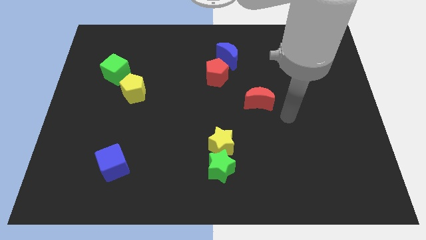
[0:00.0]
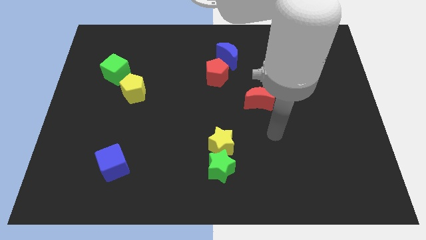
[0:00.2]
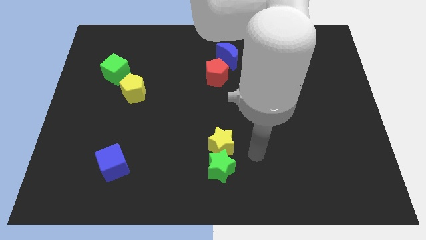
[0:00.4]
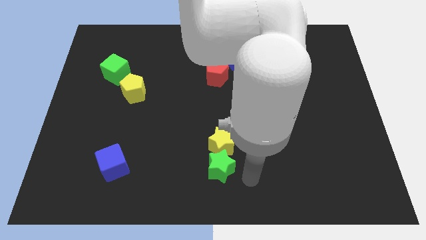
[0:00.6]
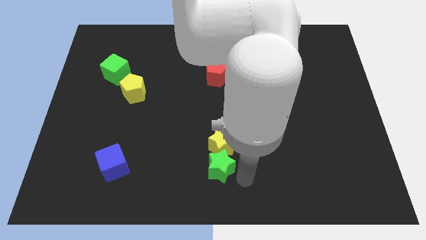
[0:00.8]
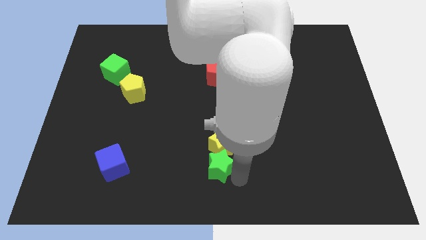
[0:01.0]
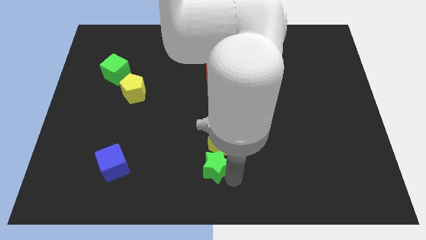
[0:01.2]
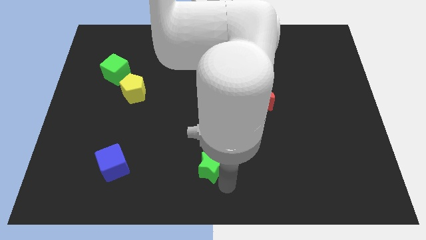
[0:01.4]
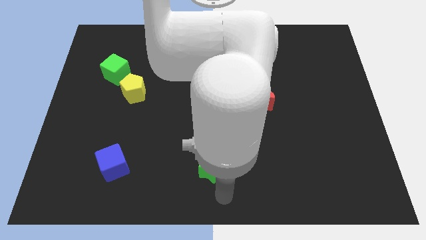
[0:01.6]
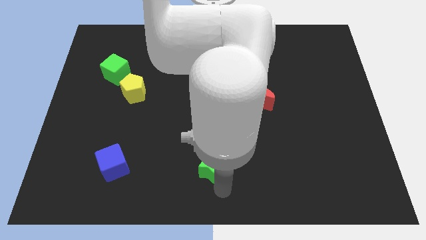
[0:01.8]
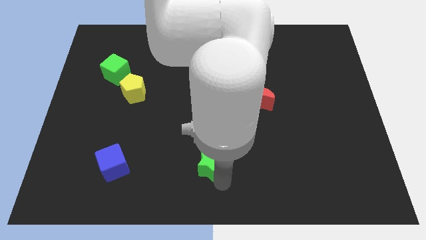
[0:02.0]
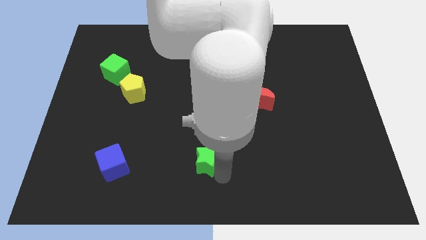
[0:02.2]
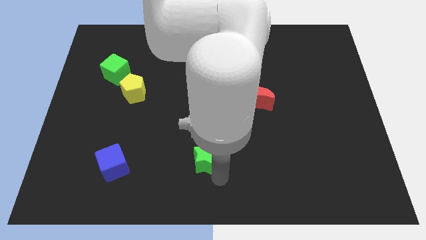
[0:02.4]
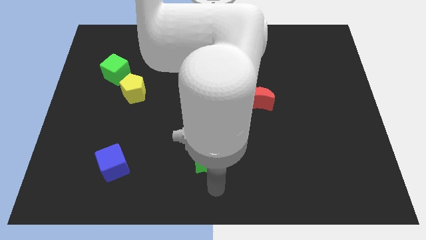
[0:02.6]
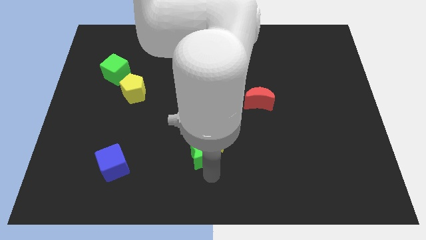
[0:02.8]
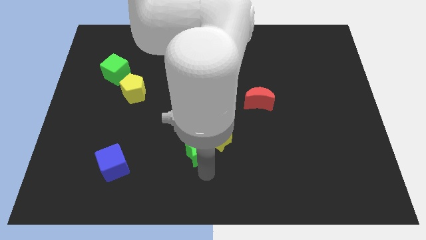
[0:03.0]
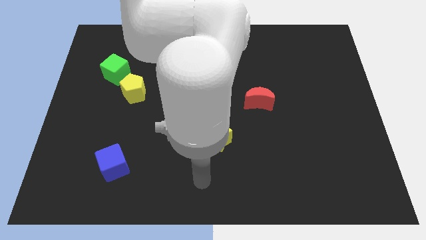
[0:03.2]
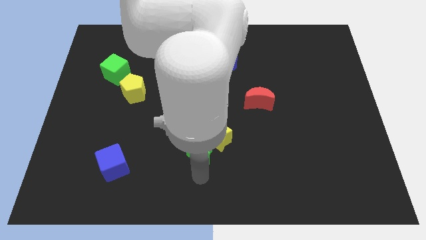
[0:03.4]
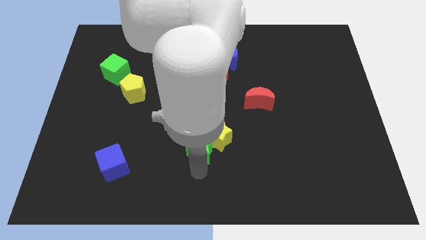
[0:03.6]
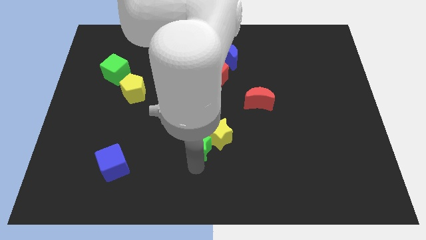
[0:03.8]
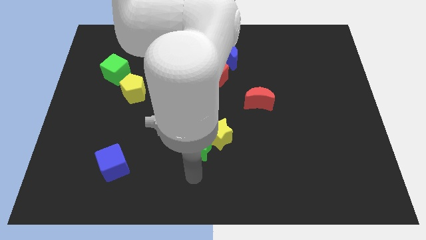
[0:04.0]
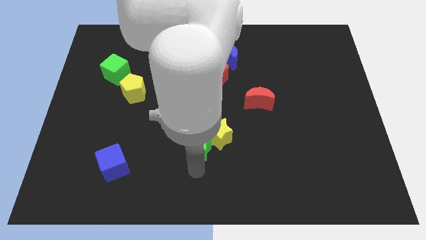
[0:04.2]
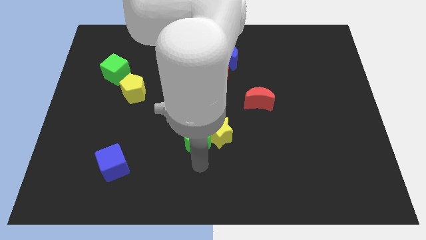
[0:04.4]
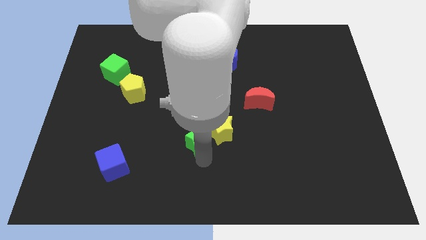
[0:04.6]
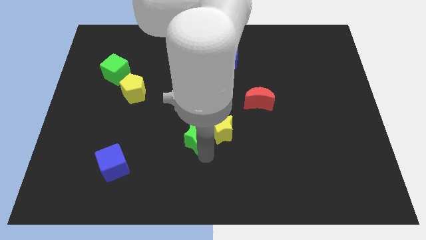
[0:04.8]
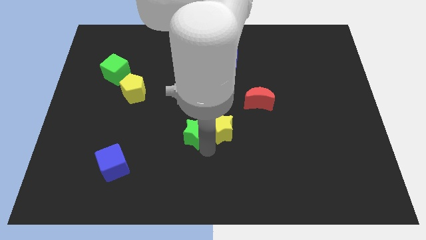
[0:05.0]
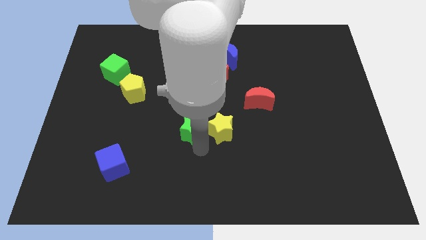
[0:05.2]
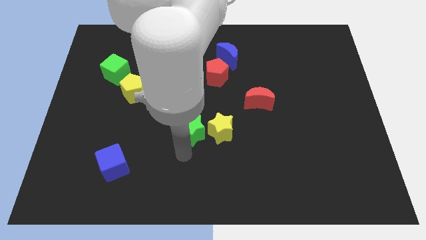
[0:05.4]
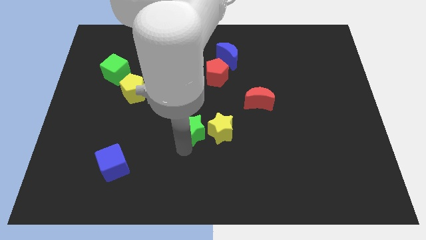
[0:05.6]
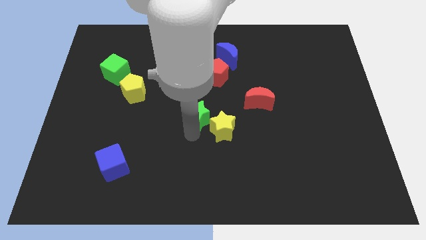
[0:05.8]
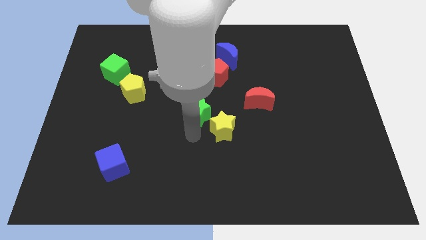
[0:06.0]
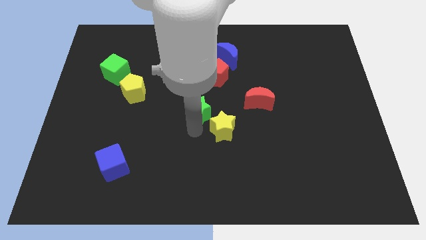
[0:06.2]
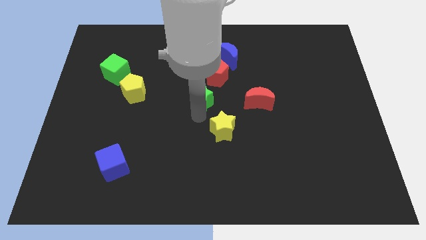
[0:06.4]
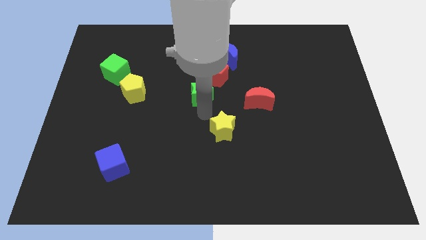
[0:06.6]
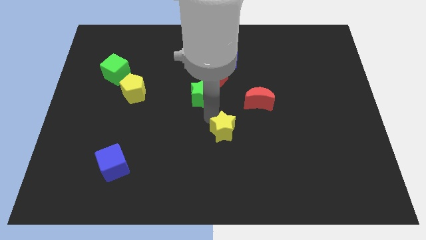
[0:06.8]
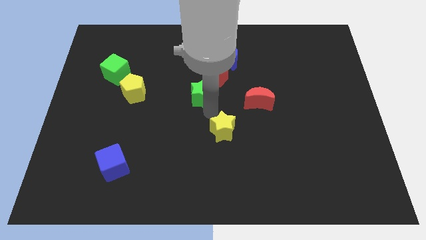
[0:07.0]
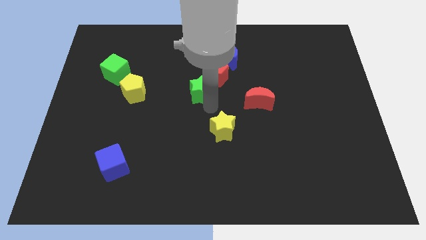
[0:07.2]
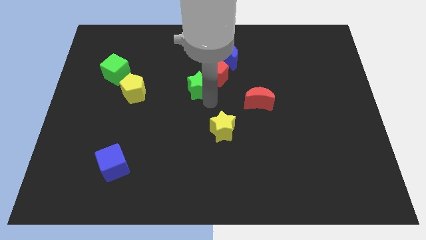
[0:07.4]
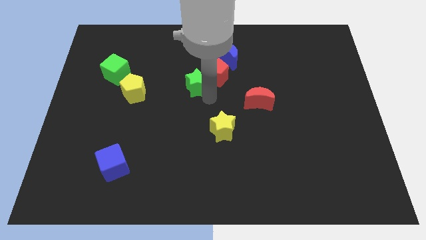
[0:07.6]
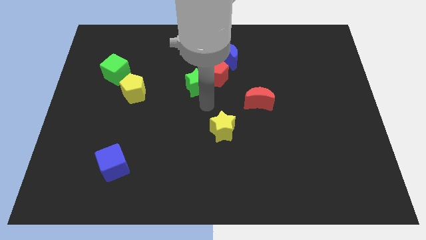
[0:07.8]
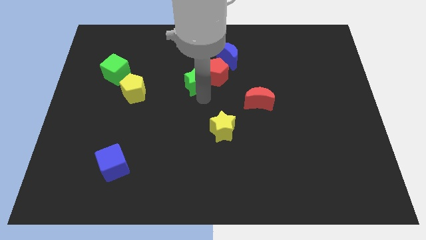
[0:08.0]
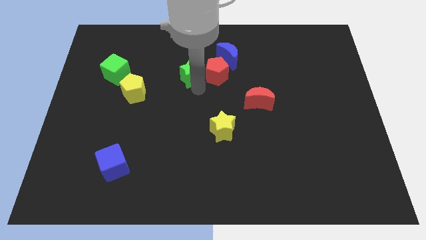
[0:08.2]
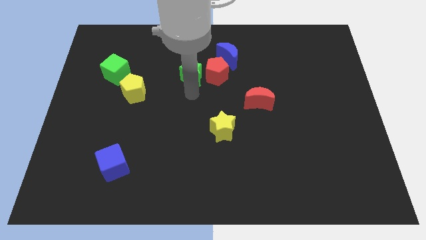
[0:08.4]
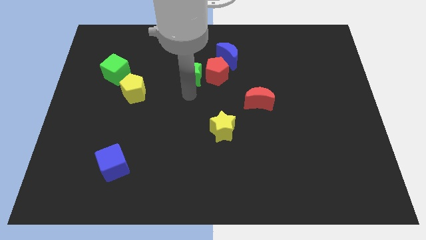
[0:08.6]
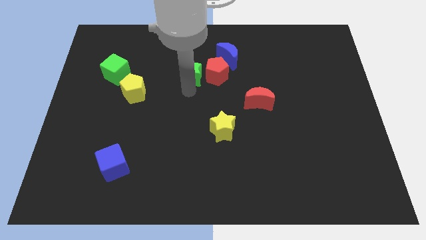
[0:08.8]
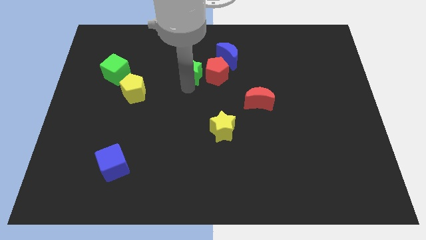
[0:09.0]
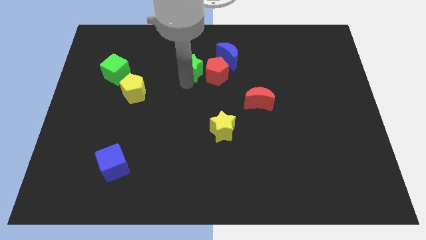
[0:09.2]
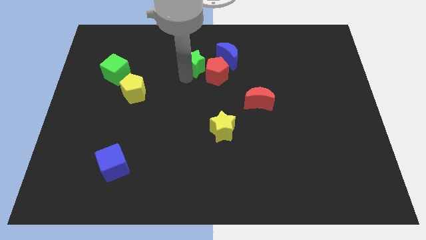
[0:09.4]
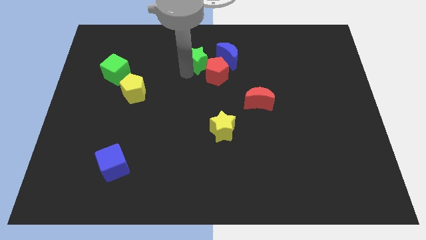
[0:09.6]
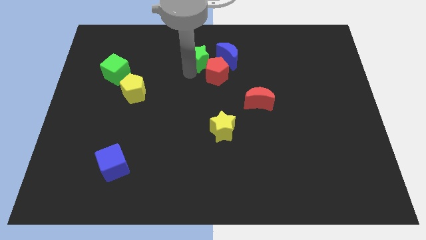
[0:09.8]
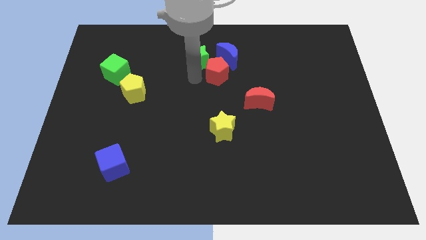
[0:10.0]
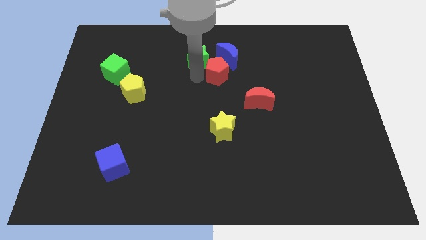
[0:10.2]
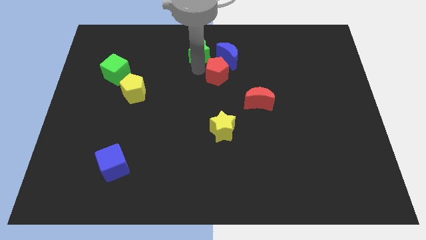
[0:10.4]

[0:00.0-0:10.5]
slide the green star to the towards your base
